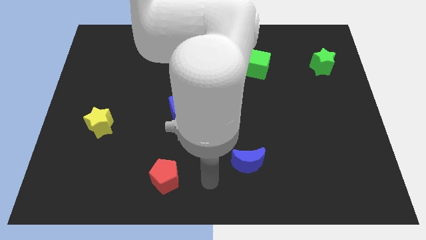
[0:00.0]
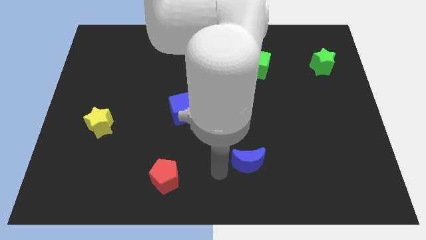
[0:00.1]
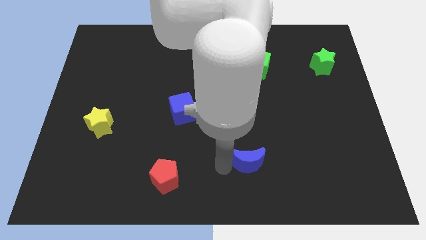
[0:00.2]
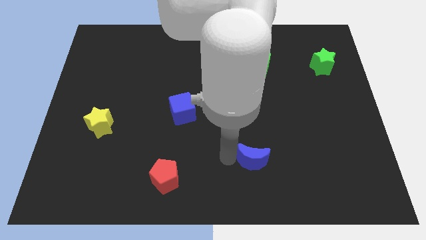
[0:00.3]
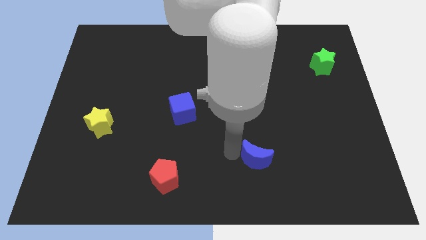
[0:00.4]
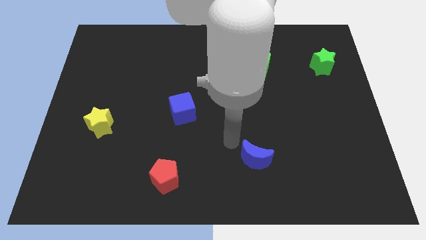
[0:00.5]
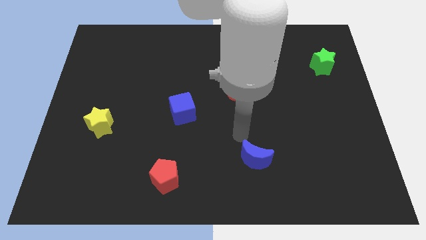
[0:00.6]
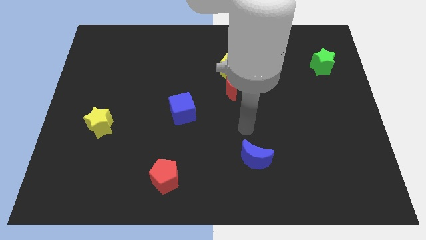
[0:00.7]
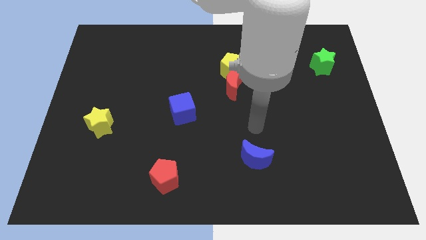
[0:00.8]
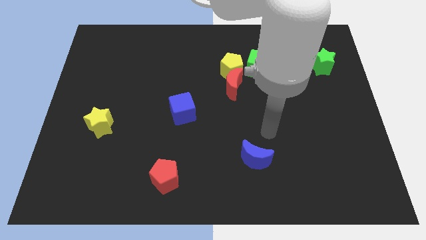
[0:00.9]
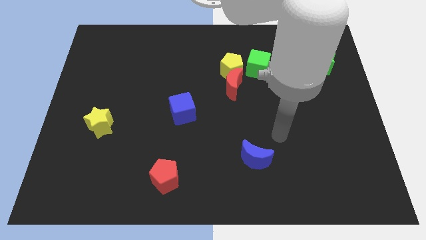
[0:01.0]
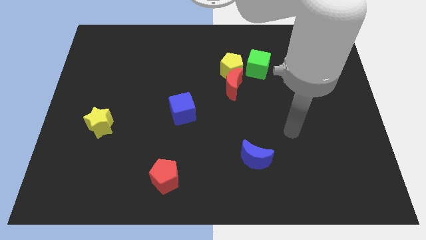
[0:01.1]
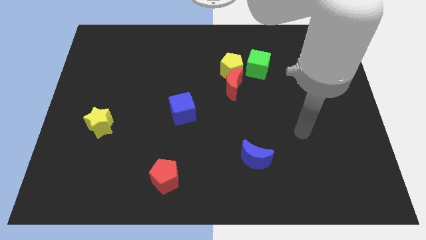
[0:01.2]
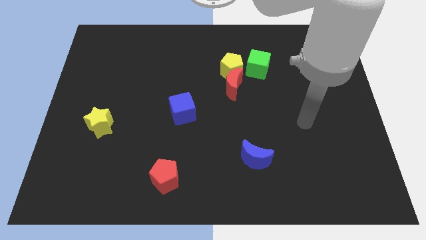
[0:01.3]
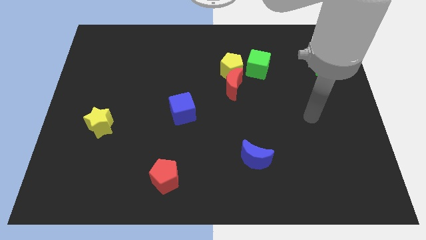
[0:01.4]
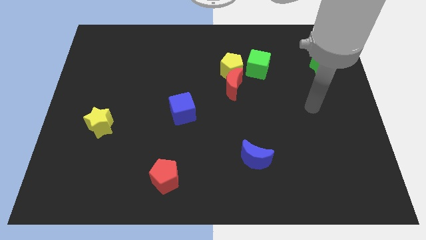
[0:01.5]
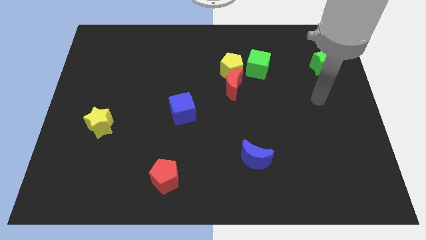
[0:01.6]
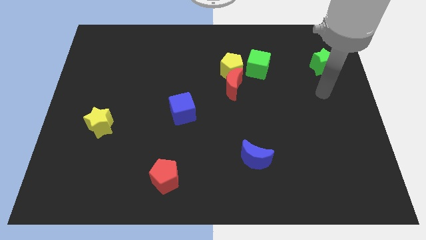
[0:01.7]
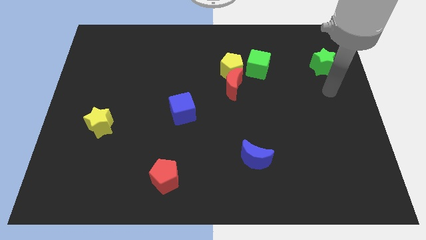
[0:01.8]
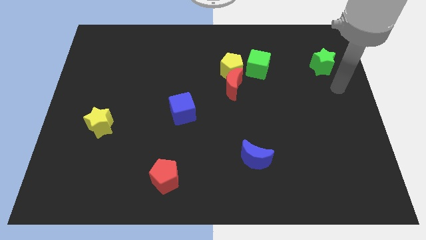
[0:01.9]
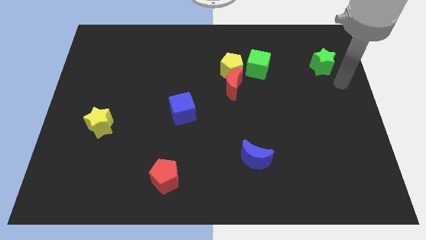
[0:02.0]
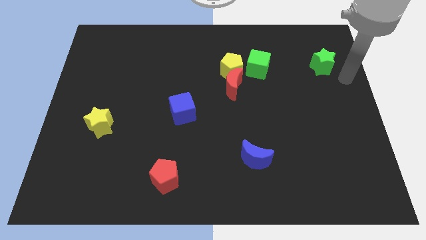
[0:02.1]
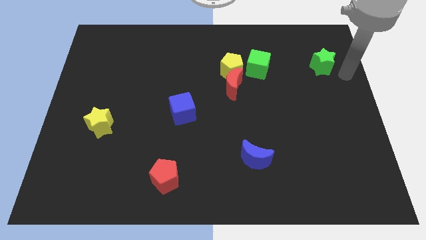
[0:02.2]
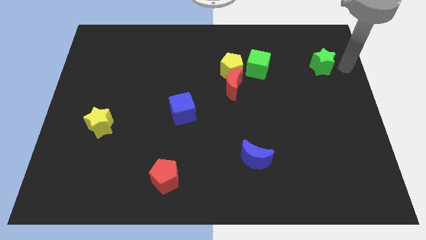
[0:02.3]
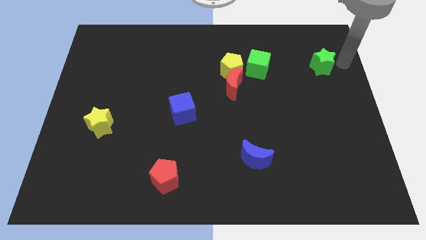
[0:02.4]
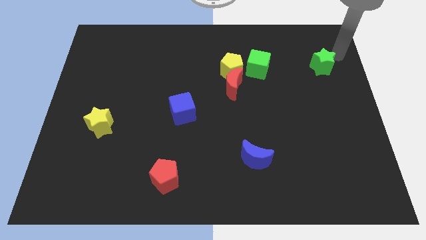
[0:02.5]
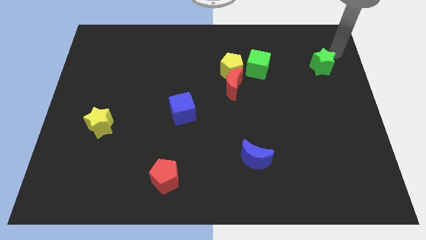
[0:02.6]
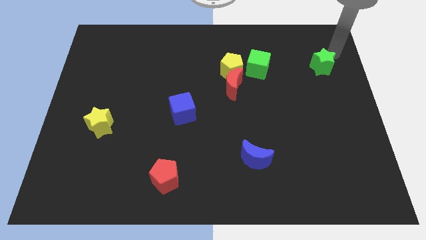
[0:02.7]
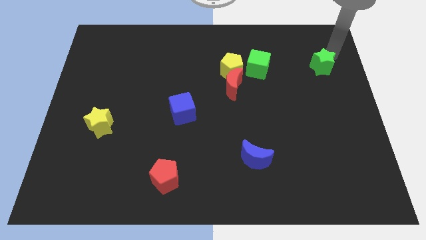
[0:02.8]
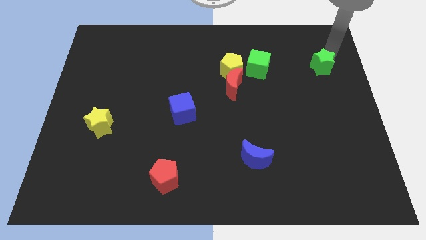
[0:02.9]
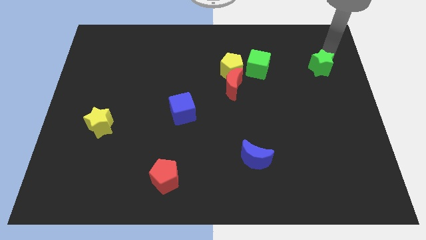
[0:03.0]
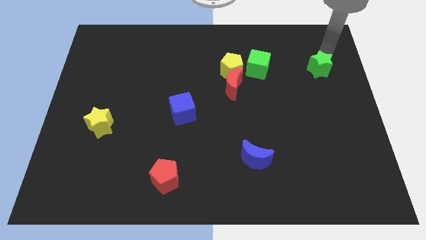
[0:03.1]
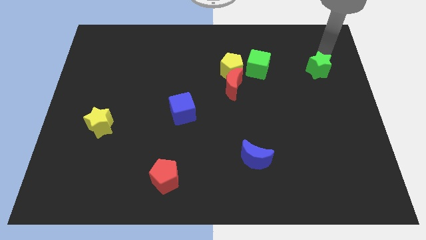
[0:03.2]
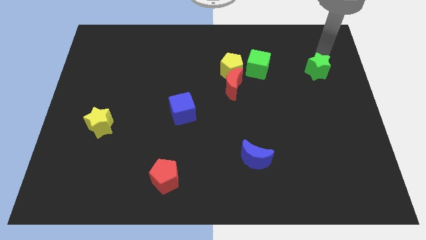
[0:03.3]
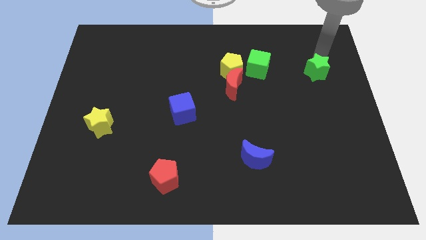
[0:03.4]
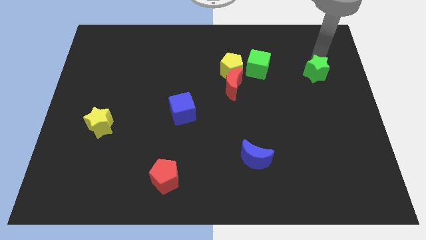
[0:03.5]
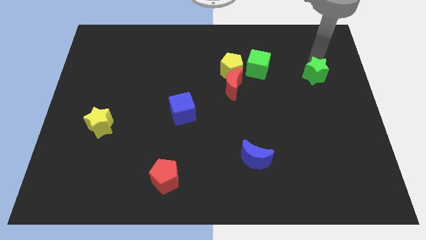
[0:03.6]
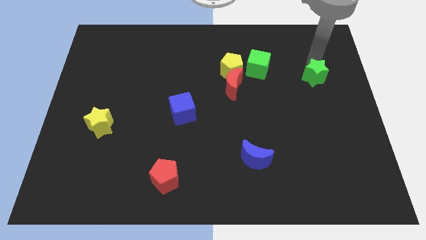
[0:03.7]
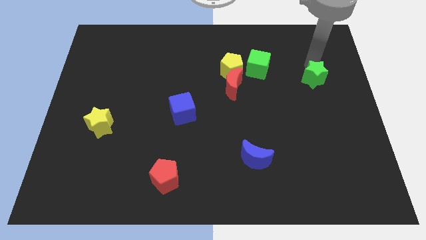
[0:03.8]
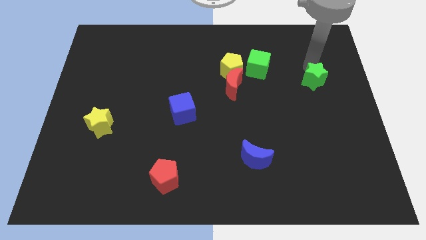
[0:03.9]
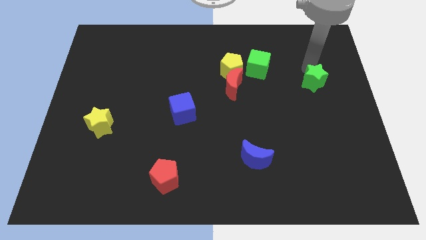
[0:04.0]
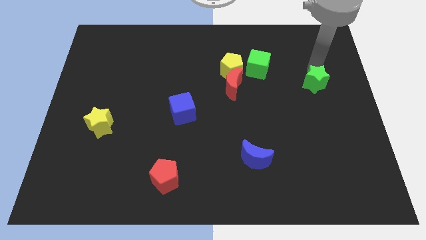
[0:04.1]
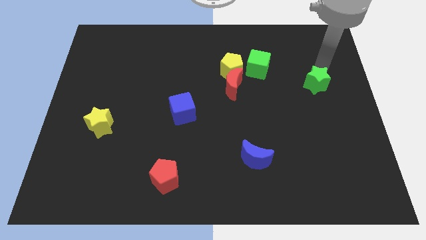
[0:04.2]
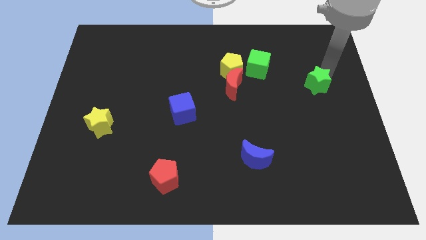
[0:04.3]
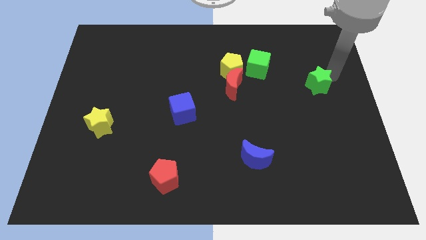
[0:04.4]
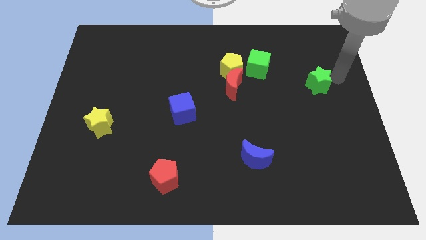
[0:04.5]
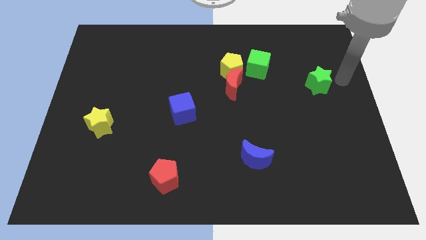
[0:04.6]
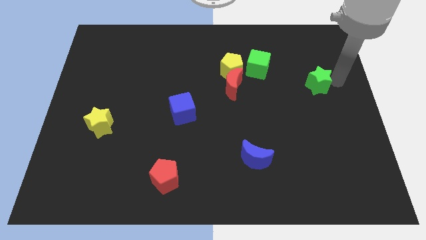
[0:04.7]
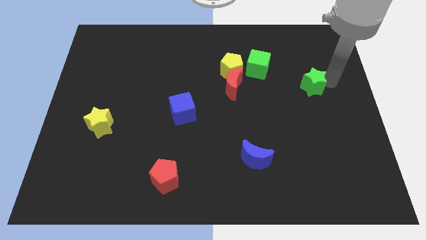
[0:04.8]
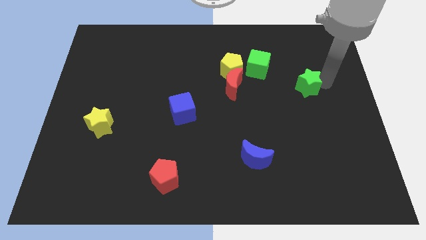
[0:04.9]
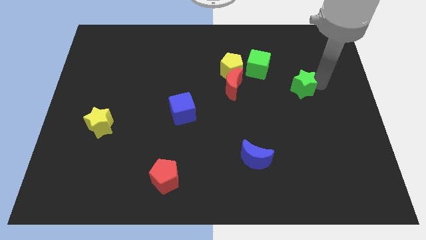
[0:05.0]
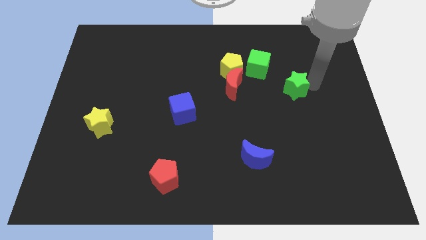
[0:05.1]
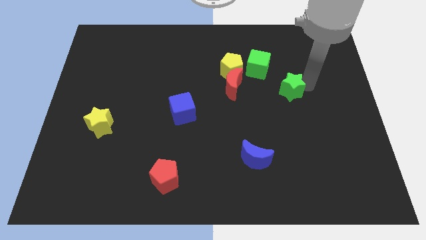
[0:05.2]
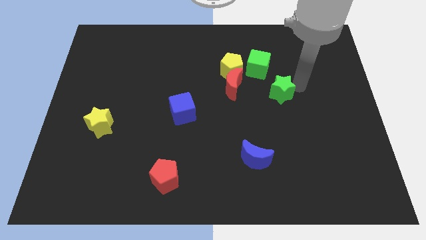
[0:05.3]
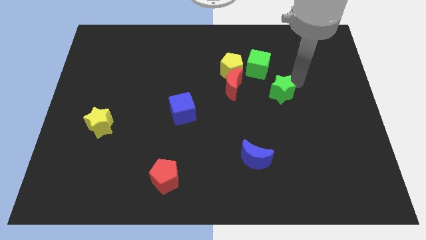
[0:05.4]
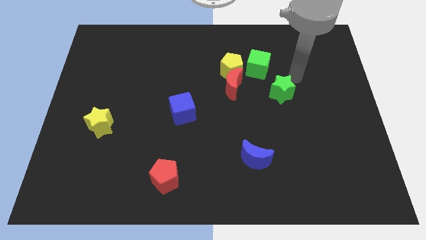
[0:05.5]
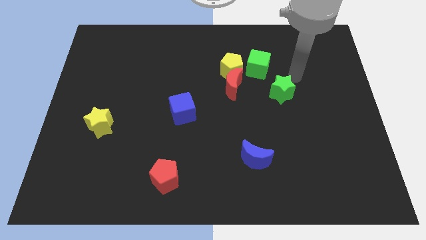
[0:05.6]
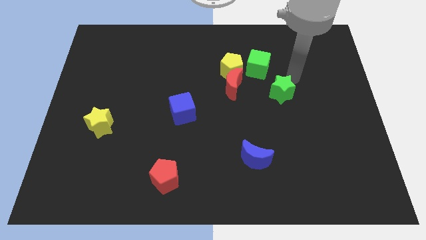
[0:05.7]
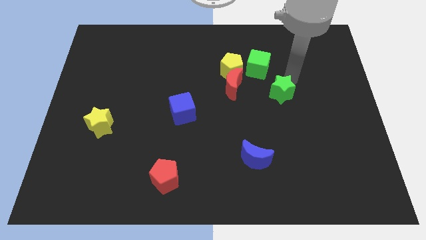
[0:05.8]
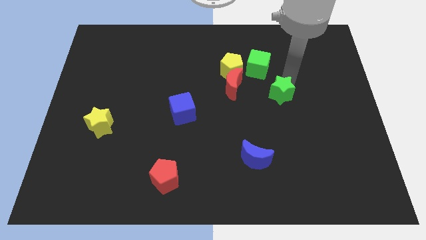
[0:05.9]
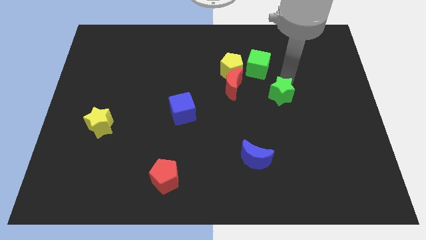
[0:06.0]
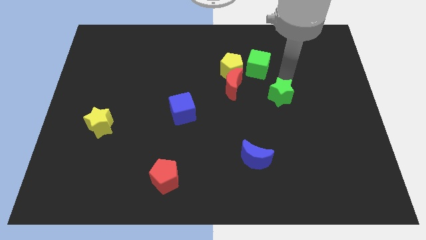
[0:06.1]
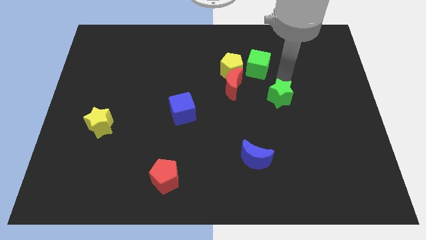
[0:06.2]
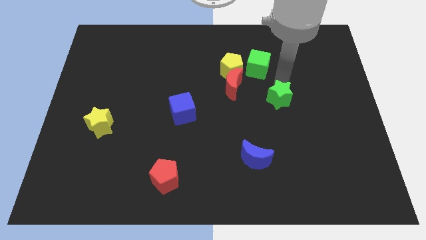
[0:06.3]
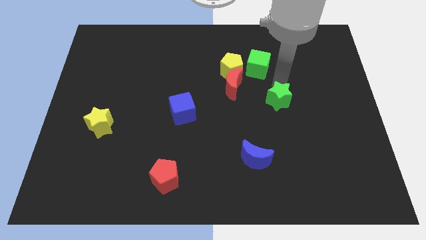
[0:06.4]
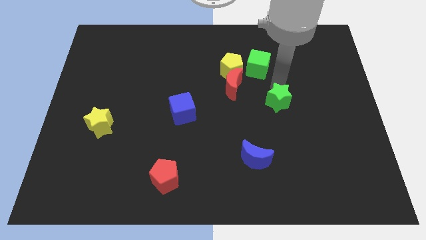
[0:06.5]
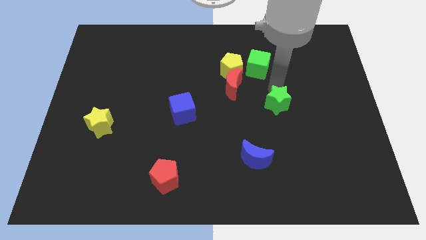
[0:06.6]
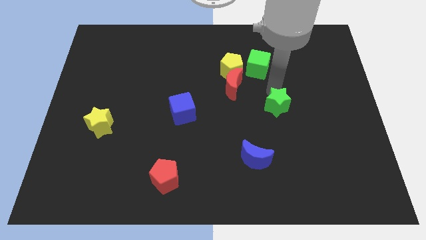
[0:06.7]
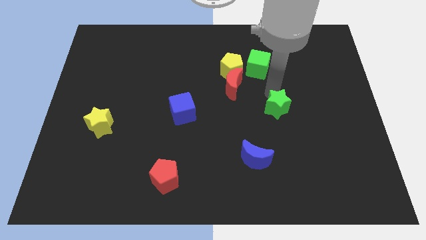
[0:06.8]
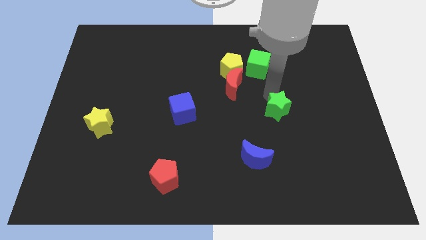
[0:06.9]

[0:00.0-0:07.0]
move the green star down and then left

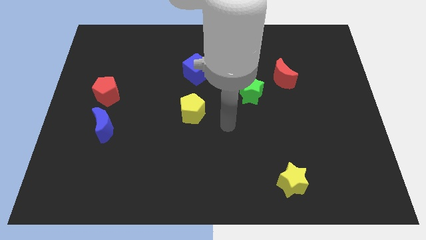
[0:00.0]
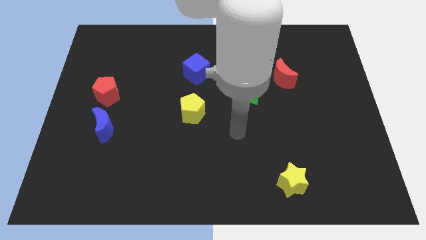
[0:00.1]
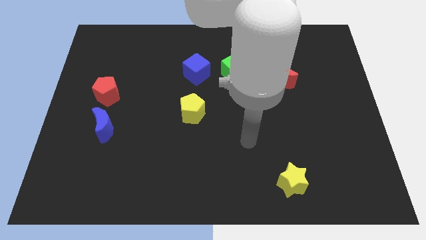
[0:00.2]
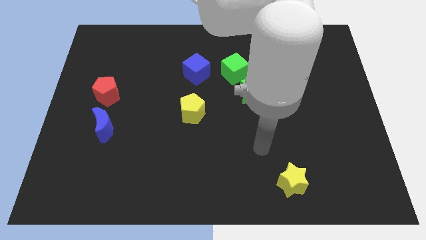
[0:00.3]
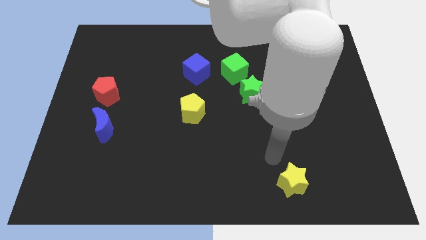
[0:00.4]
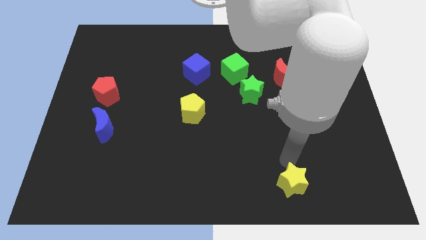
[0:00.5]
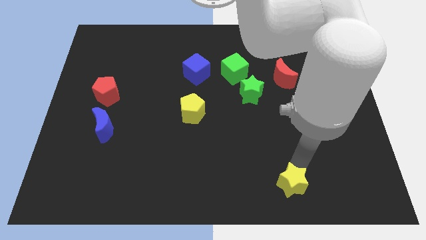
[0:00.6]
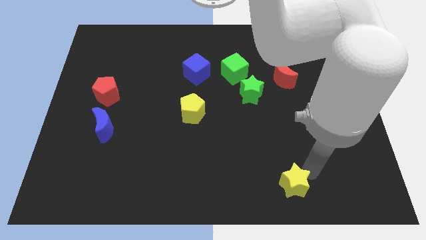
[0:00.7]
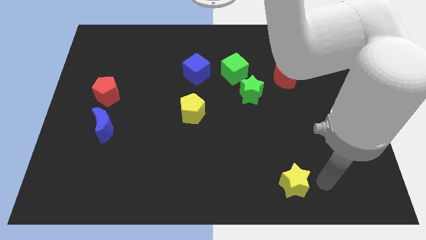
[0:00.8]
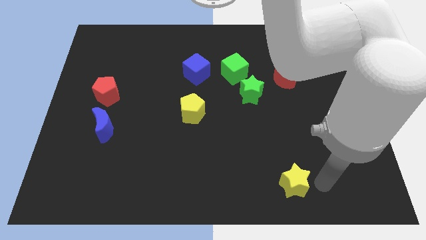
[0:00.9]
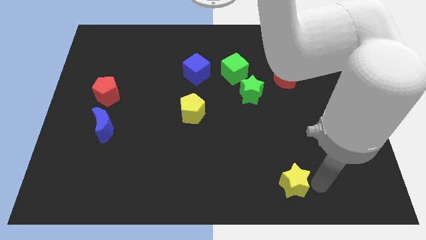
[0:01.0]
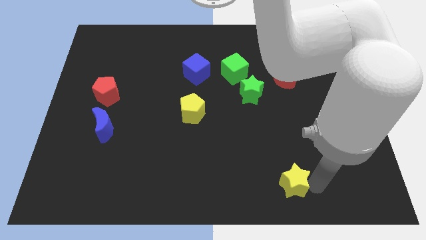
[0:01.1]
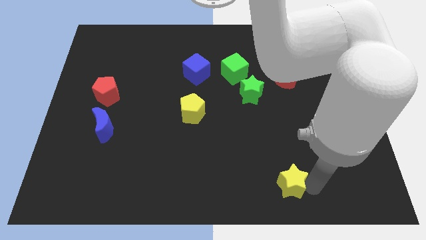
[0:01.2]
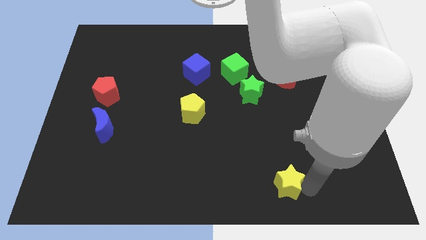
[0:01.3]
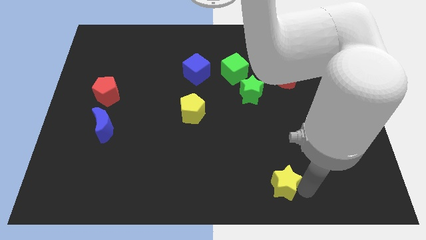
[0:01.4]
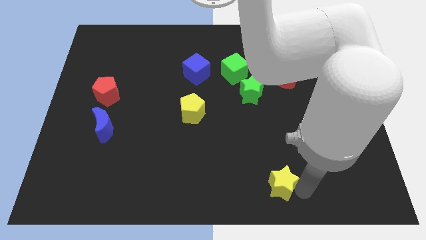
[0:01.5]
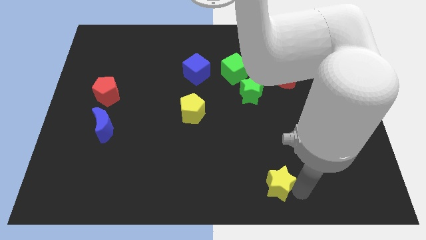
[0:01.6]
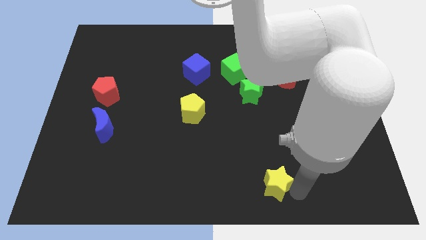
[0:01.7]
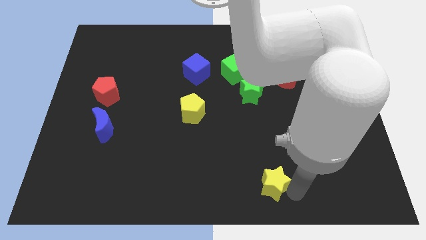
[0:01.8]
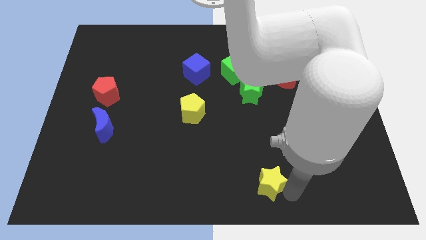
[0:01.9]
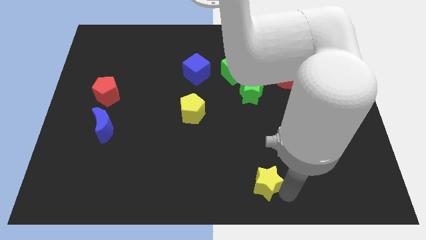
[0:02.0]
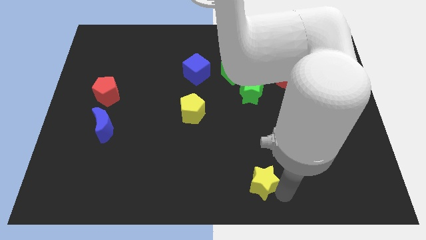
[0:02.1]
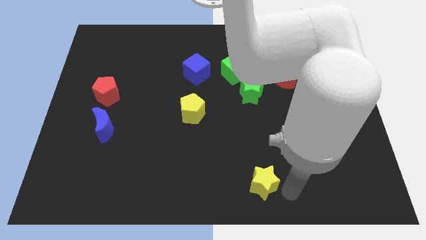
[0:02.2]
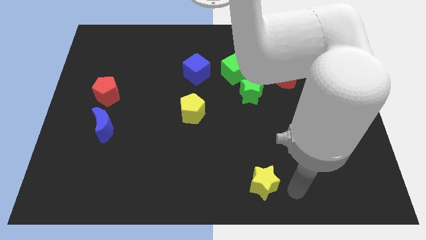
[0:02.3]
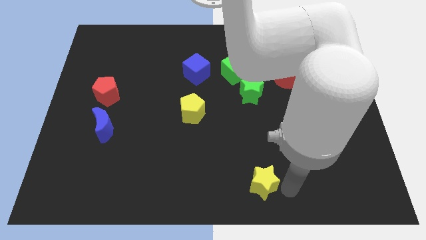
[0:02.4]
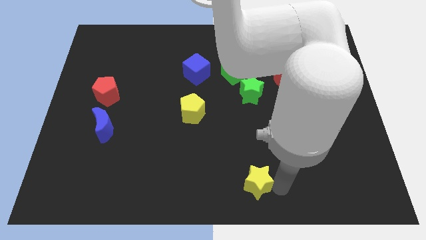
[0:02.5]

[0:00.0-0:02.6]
slide the yellow star a little bit to the left
